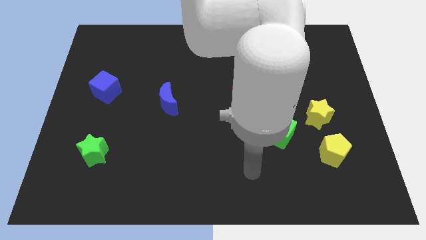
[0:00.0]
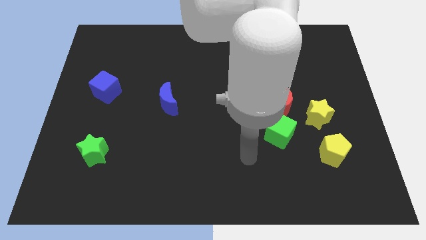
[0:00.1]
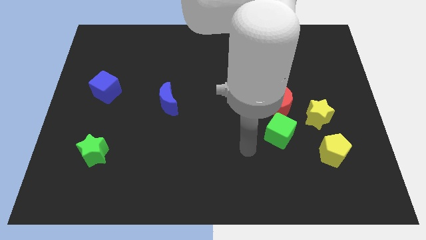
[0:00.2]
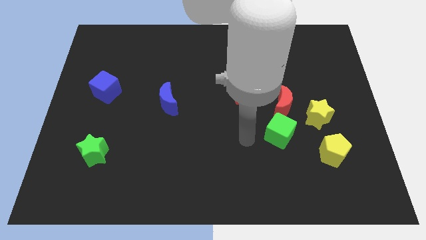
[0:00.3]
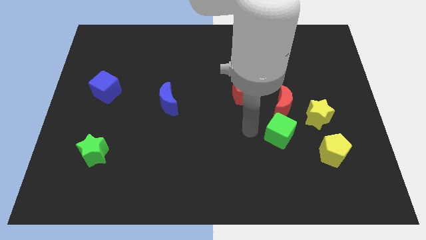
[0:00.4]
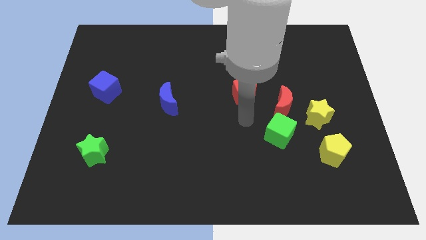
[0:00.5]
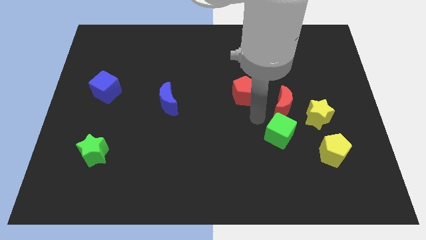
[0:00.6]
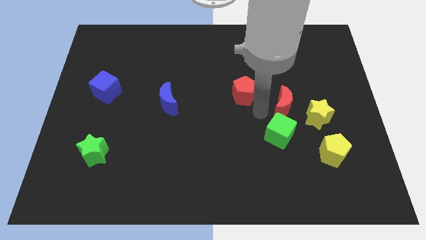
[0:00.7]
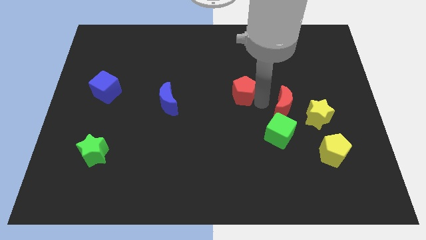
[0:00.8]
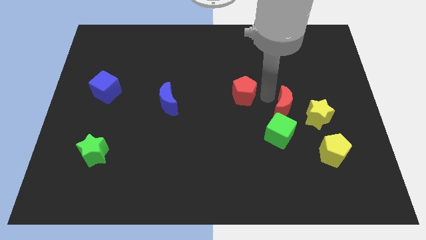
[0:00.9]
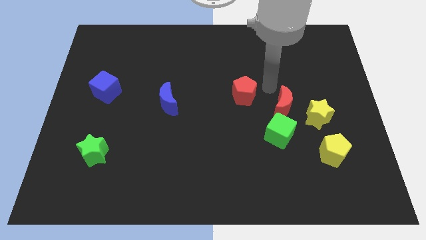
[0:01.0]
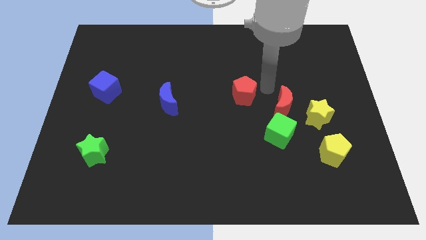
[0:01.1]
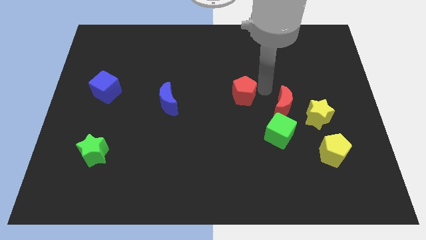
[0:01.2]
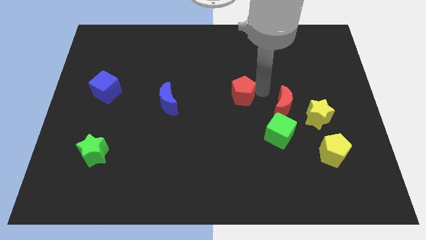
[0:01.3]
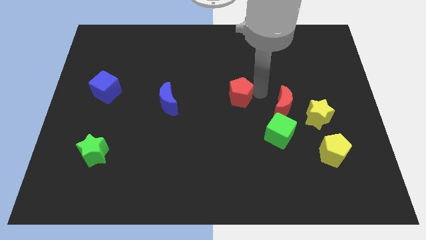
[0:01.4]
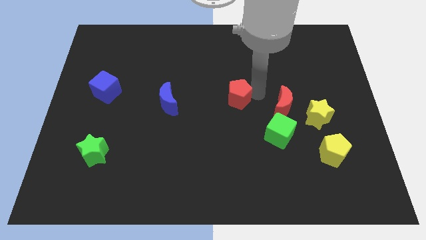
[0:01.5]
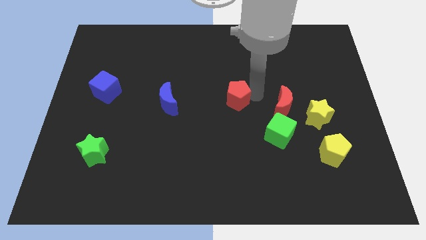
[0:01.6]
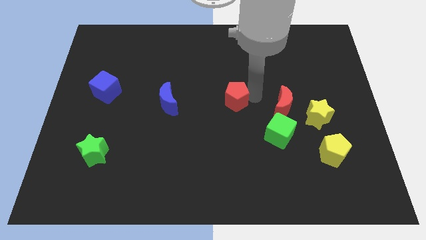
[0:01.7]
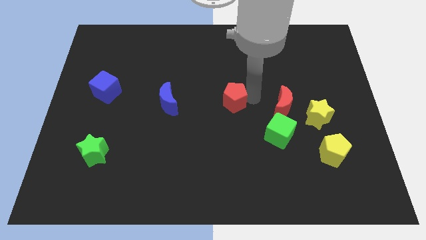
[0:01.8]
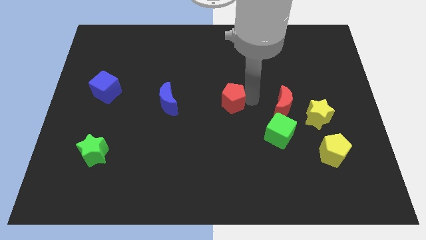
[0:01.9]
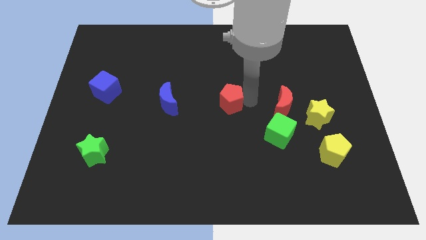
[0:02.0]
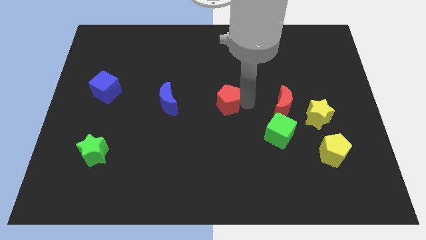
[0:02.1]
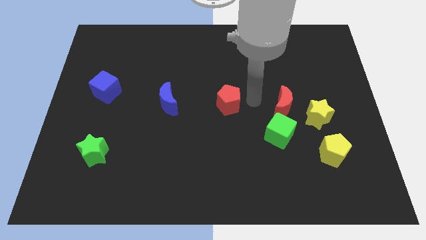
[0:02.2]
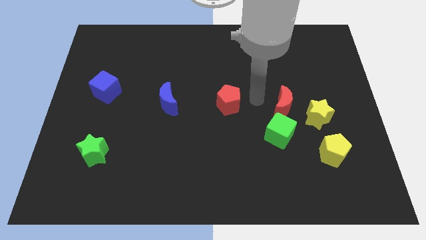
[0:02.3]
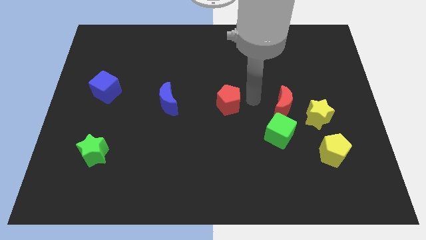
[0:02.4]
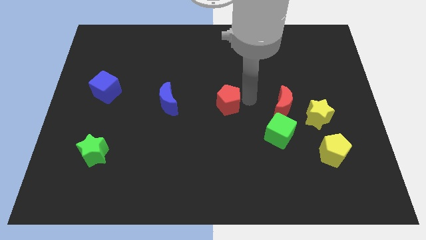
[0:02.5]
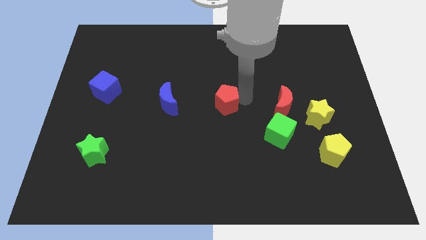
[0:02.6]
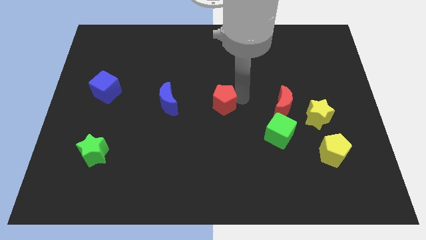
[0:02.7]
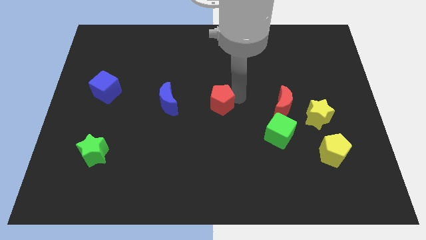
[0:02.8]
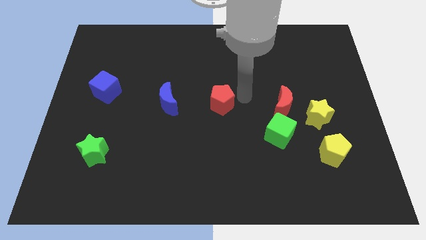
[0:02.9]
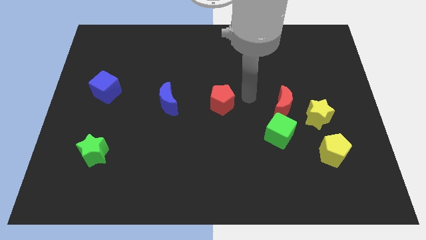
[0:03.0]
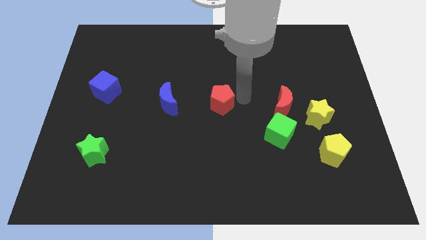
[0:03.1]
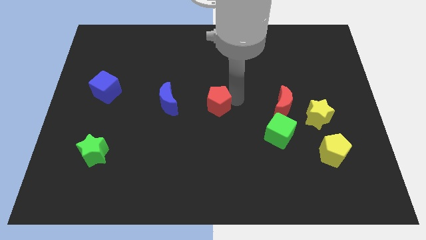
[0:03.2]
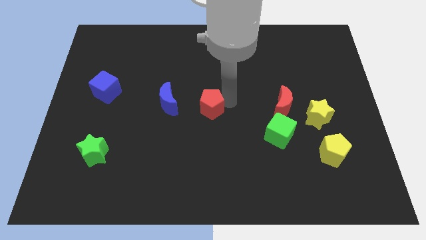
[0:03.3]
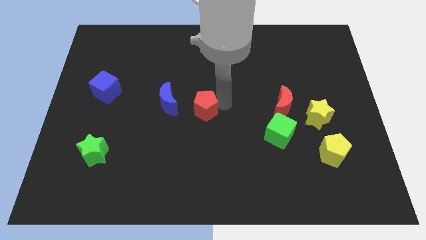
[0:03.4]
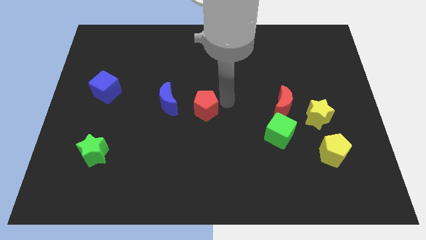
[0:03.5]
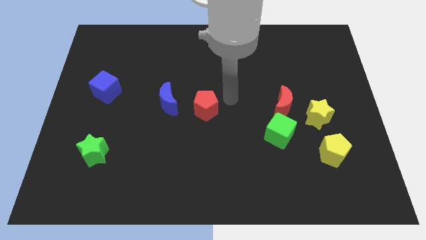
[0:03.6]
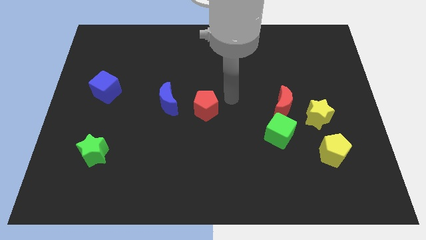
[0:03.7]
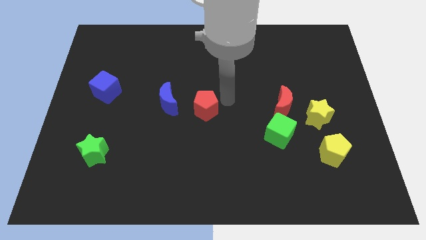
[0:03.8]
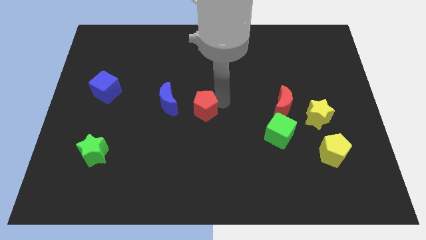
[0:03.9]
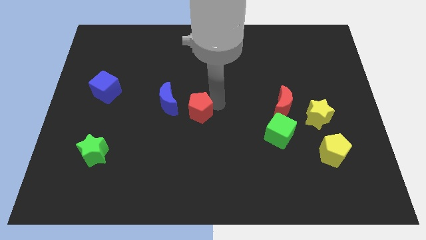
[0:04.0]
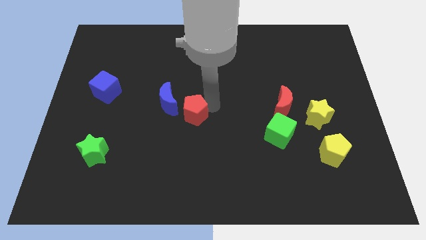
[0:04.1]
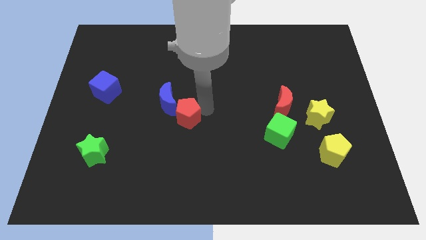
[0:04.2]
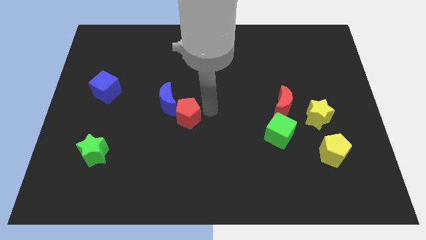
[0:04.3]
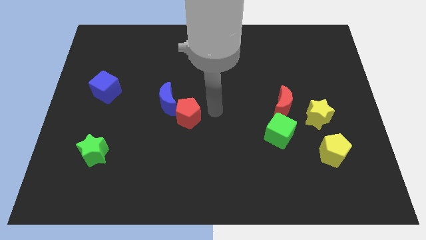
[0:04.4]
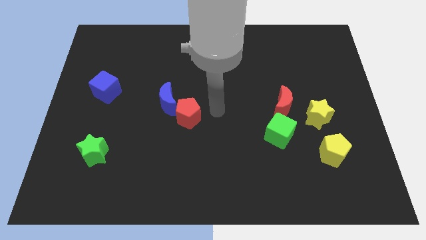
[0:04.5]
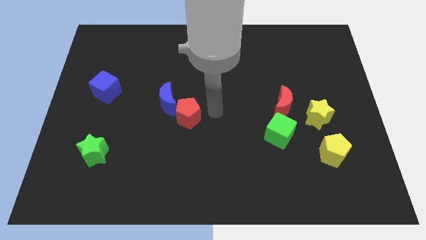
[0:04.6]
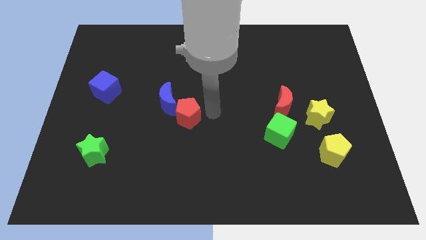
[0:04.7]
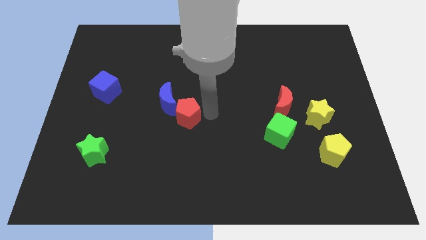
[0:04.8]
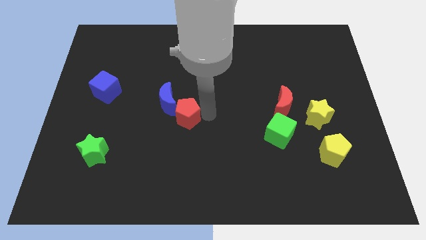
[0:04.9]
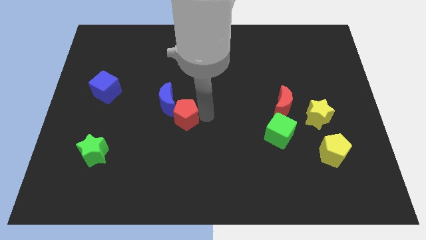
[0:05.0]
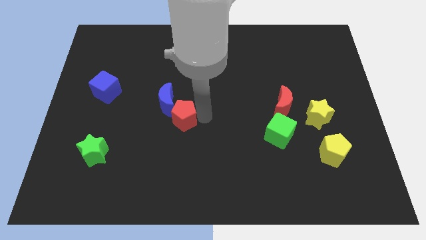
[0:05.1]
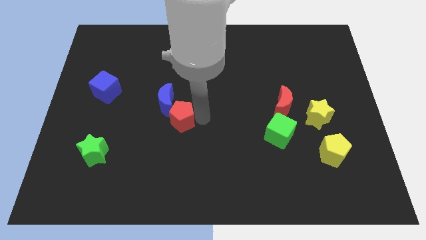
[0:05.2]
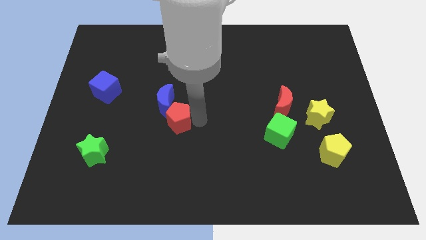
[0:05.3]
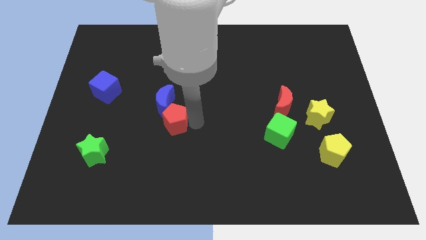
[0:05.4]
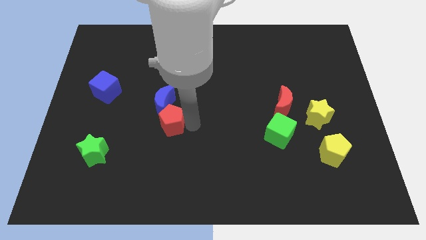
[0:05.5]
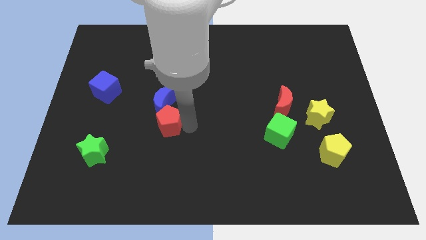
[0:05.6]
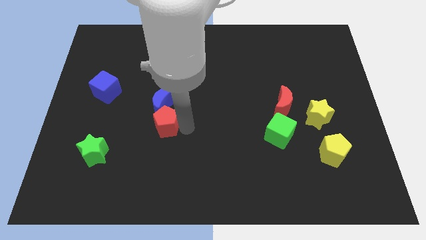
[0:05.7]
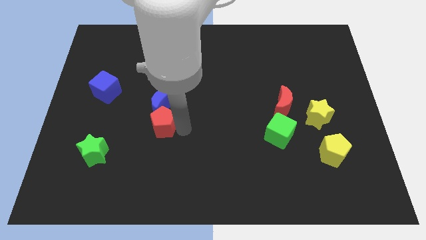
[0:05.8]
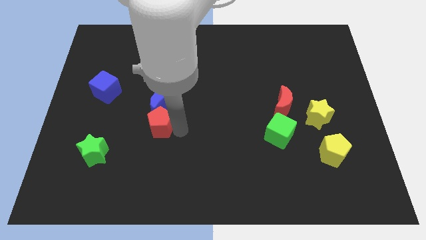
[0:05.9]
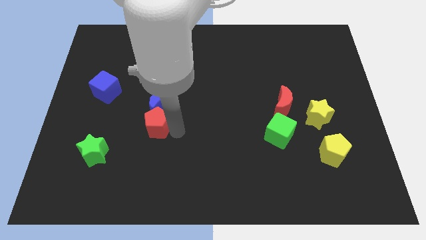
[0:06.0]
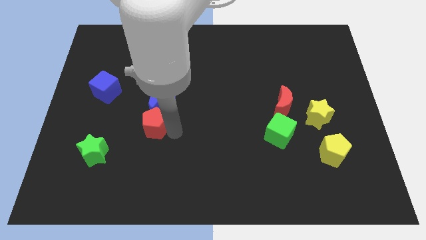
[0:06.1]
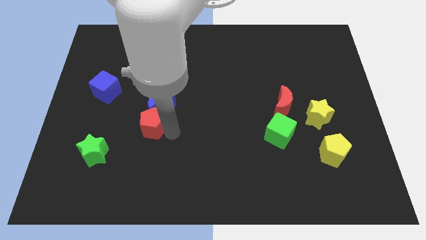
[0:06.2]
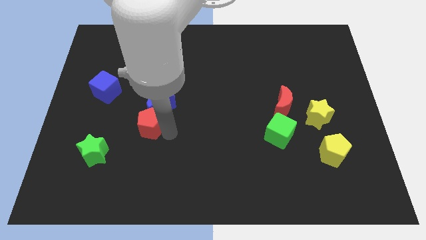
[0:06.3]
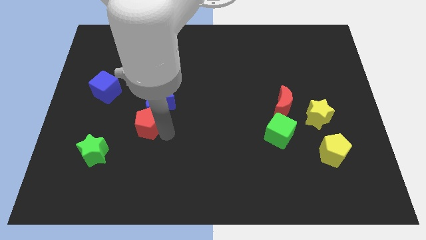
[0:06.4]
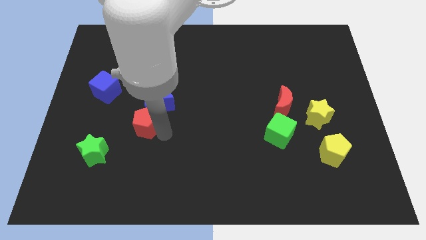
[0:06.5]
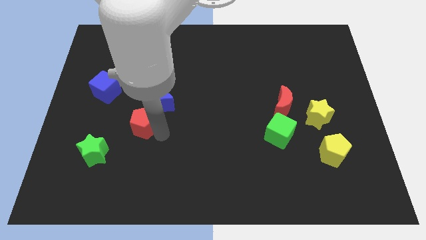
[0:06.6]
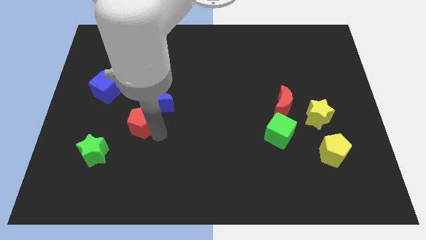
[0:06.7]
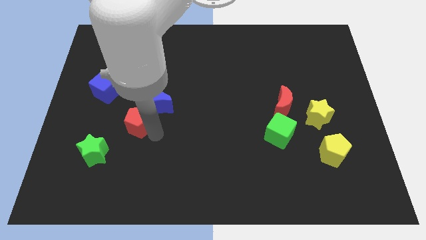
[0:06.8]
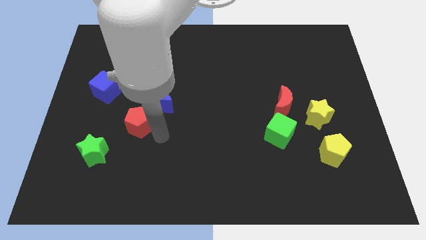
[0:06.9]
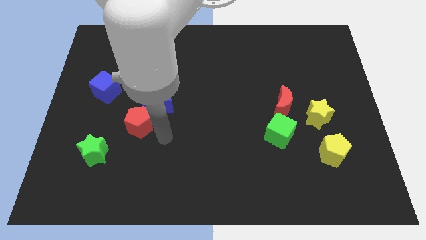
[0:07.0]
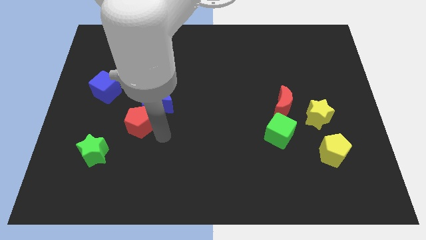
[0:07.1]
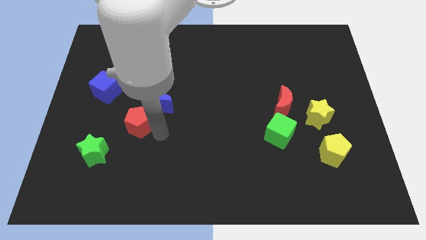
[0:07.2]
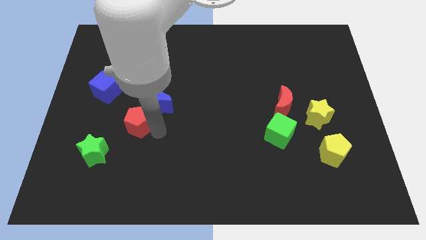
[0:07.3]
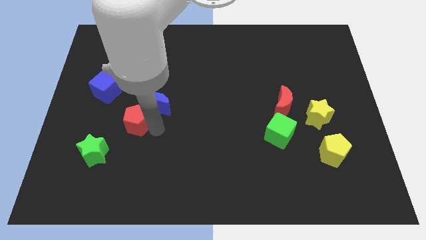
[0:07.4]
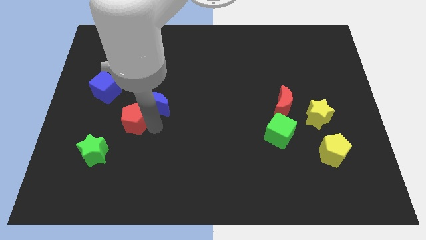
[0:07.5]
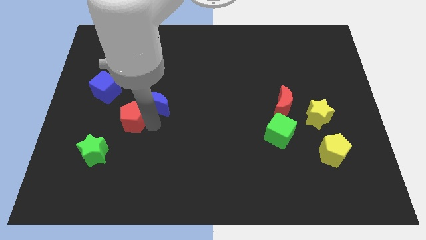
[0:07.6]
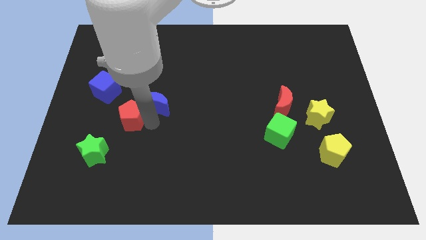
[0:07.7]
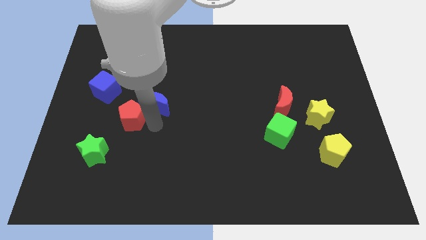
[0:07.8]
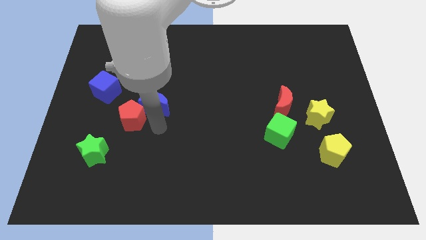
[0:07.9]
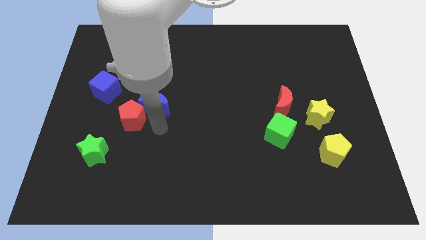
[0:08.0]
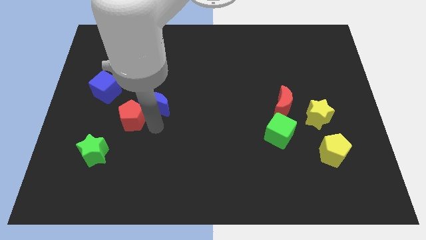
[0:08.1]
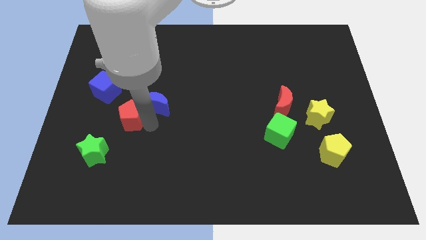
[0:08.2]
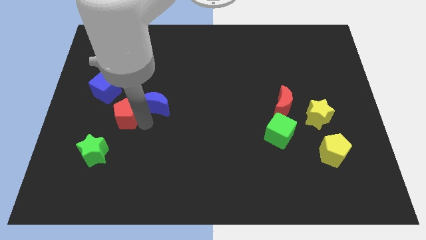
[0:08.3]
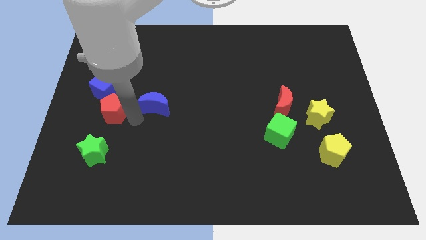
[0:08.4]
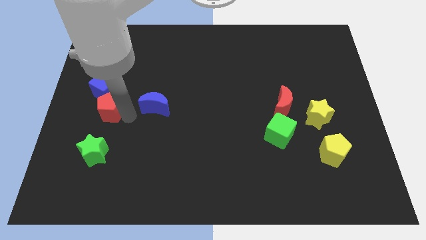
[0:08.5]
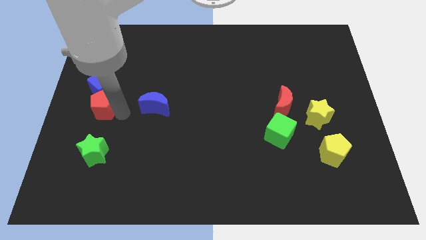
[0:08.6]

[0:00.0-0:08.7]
push the red pentagon to the left side
